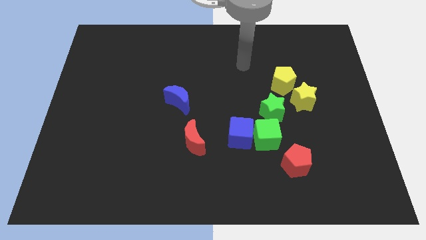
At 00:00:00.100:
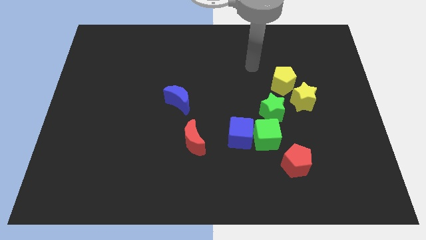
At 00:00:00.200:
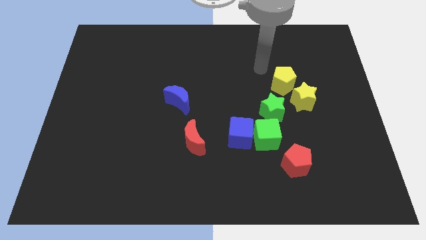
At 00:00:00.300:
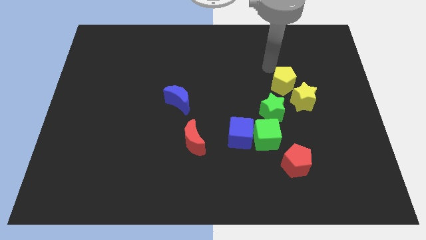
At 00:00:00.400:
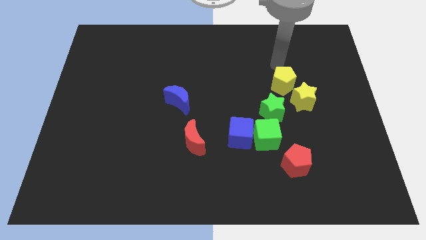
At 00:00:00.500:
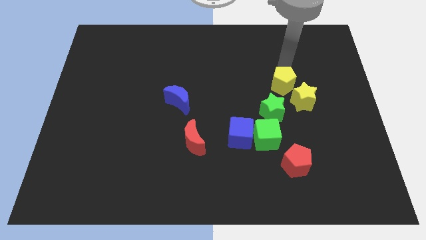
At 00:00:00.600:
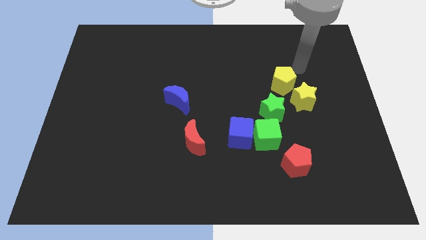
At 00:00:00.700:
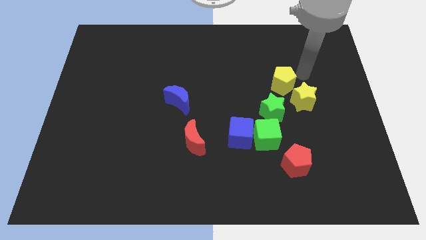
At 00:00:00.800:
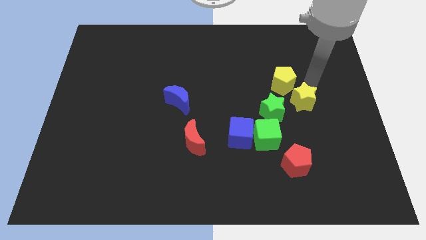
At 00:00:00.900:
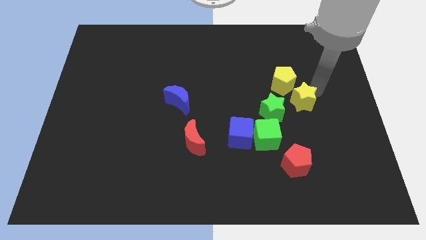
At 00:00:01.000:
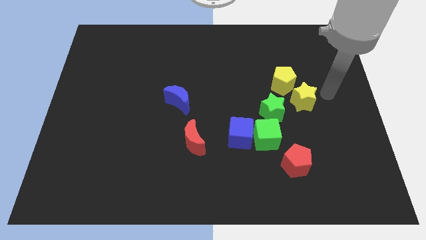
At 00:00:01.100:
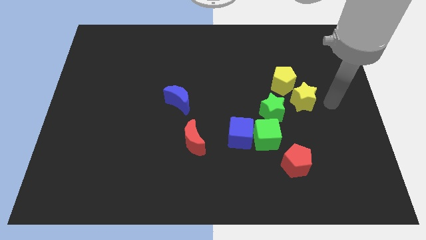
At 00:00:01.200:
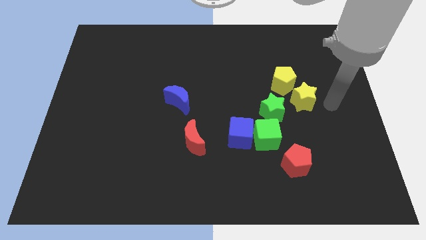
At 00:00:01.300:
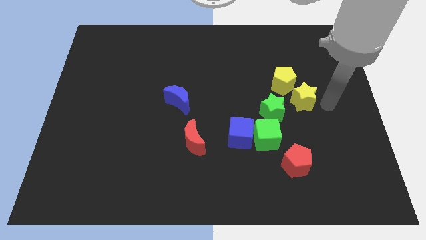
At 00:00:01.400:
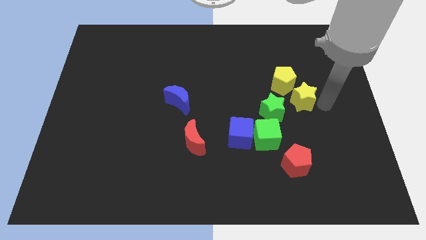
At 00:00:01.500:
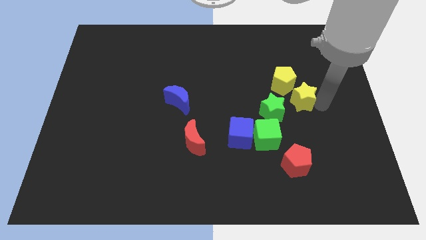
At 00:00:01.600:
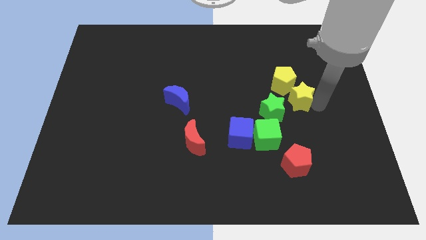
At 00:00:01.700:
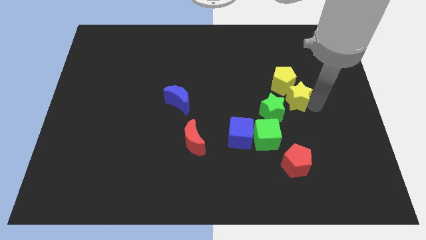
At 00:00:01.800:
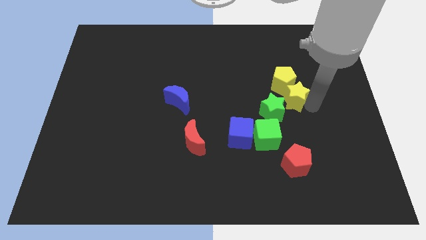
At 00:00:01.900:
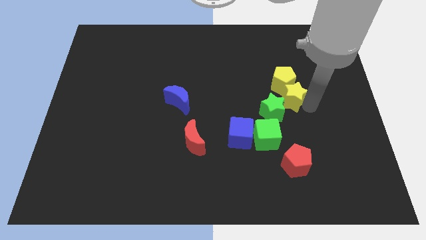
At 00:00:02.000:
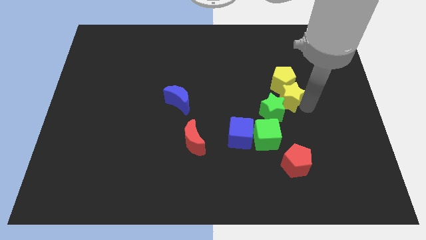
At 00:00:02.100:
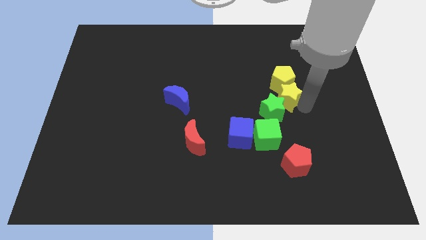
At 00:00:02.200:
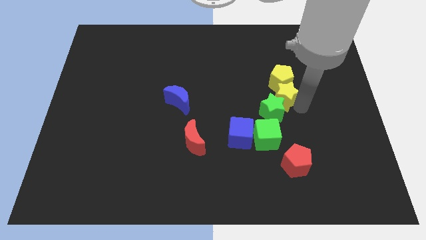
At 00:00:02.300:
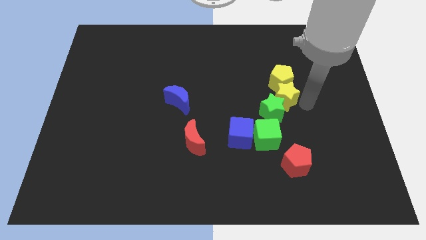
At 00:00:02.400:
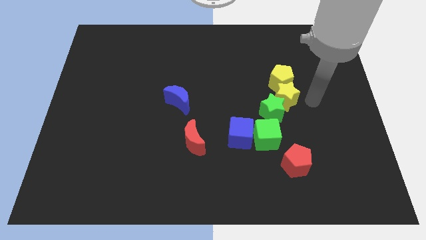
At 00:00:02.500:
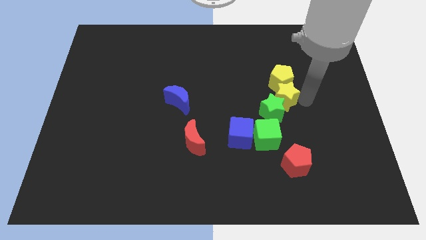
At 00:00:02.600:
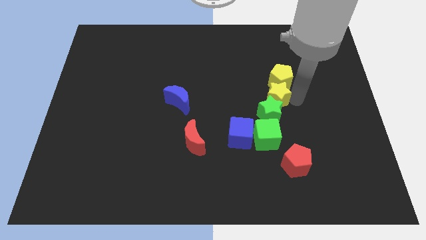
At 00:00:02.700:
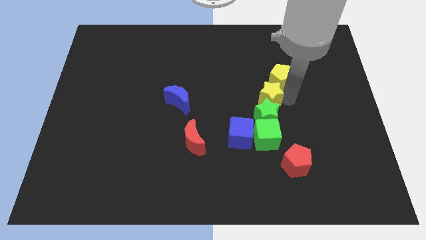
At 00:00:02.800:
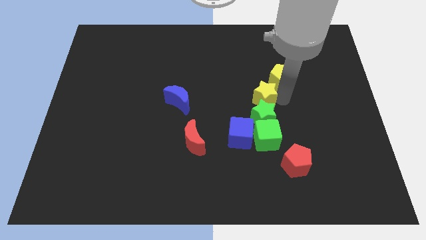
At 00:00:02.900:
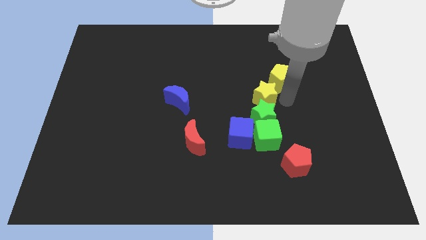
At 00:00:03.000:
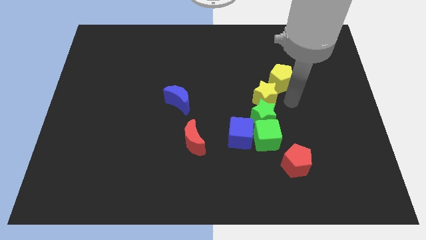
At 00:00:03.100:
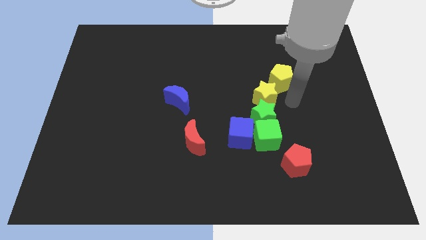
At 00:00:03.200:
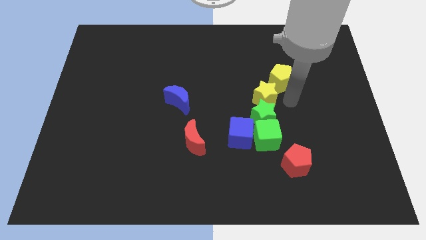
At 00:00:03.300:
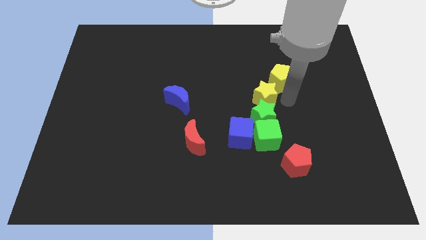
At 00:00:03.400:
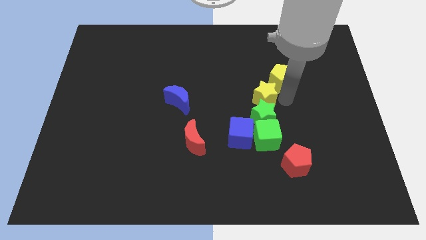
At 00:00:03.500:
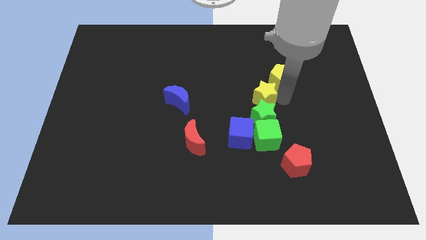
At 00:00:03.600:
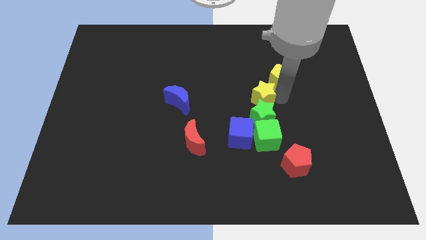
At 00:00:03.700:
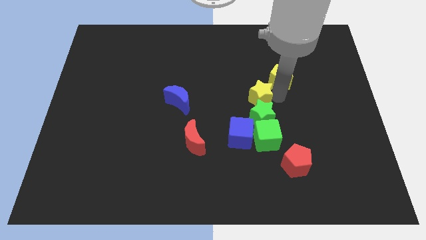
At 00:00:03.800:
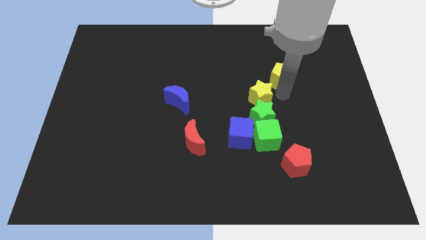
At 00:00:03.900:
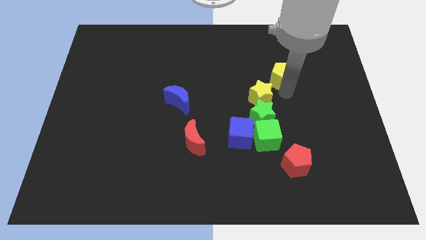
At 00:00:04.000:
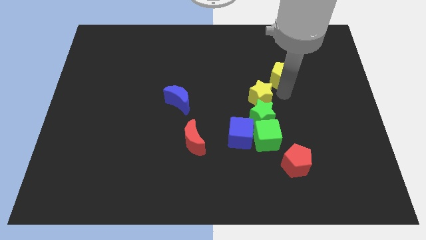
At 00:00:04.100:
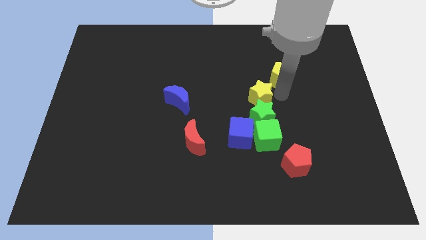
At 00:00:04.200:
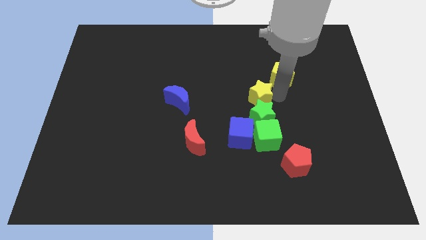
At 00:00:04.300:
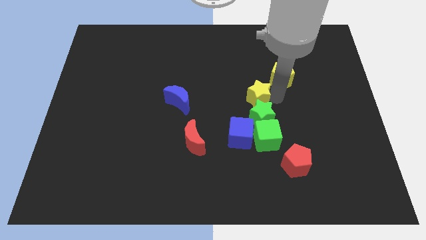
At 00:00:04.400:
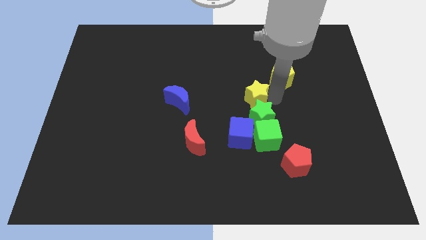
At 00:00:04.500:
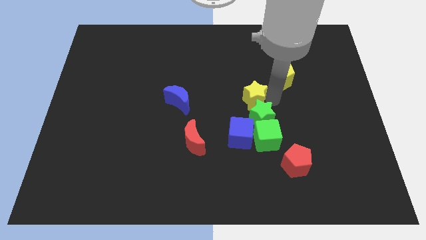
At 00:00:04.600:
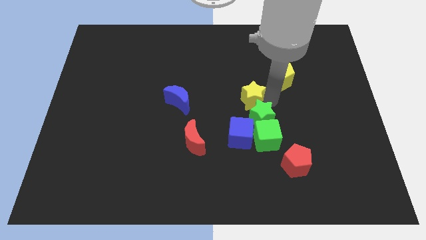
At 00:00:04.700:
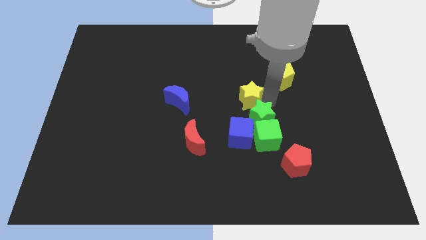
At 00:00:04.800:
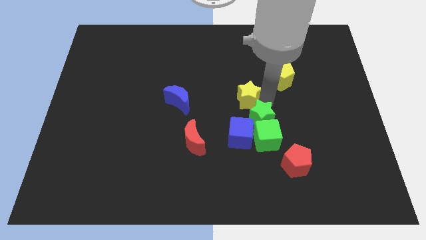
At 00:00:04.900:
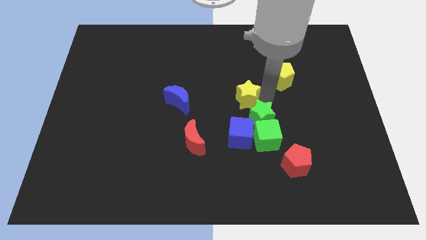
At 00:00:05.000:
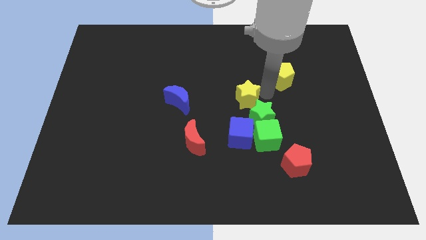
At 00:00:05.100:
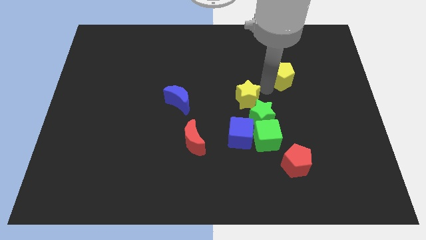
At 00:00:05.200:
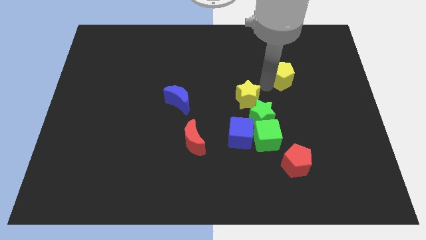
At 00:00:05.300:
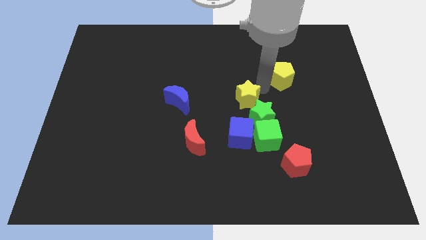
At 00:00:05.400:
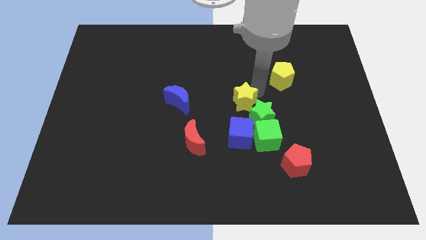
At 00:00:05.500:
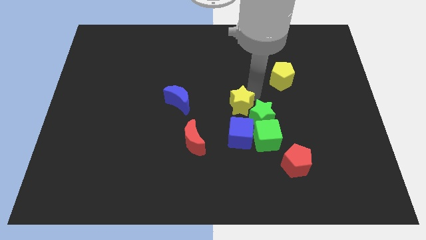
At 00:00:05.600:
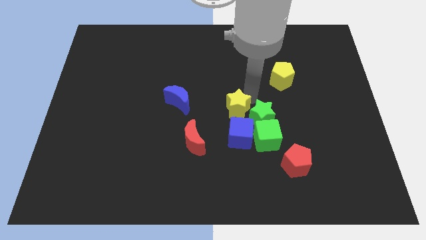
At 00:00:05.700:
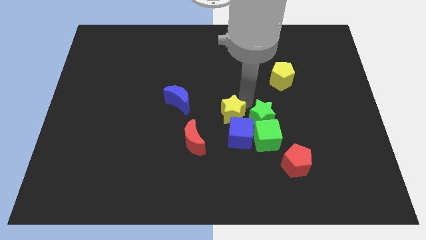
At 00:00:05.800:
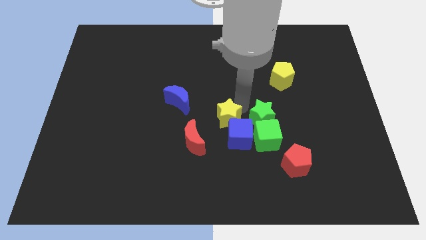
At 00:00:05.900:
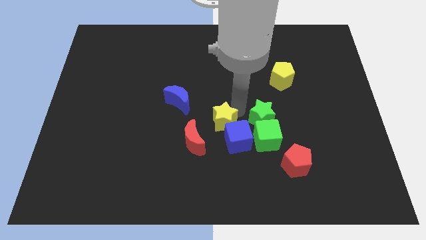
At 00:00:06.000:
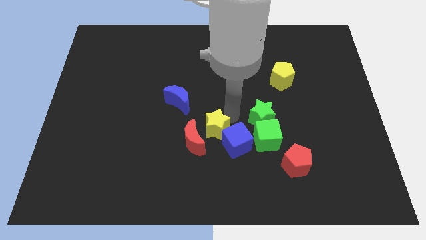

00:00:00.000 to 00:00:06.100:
push the yellow star to the red moon

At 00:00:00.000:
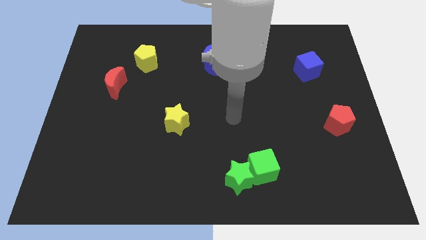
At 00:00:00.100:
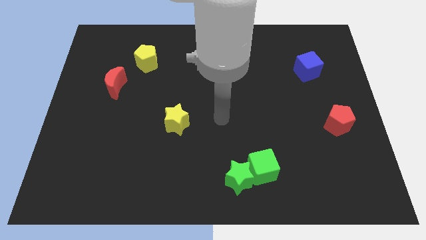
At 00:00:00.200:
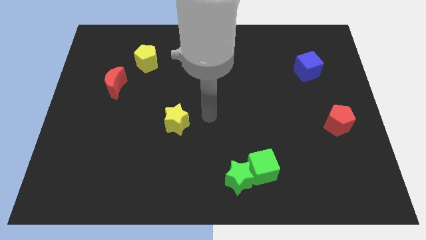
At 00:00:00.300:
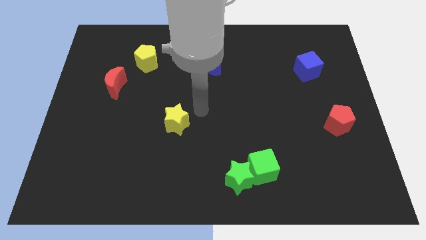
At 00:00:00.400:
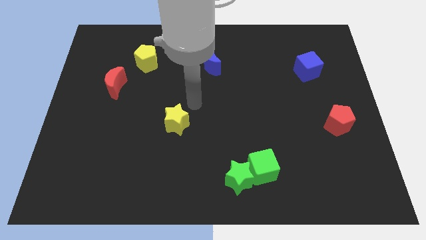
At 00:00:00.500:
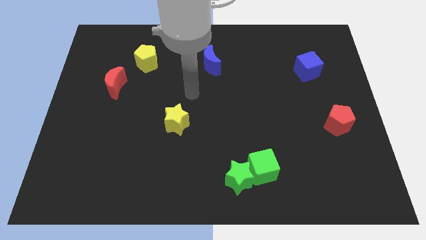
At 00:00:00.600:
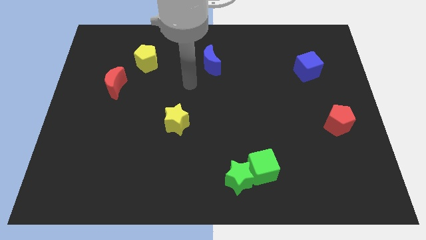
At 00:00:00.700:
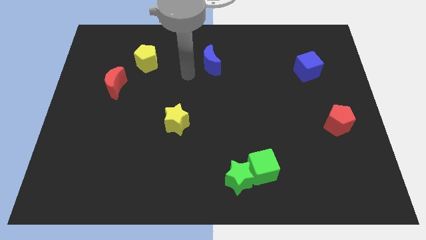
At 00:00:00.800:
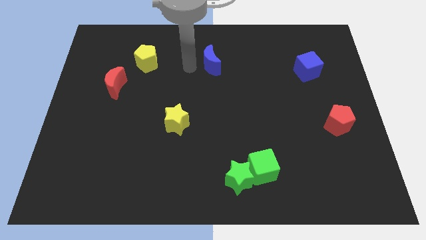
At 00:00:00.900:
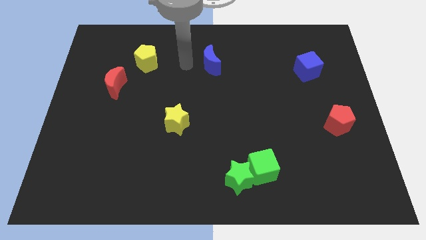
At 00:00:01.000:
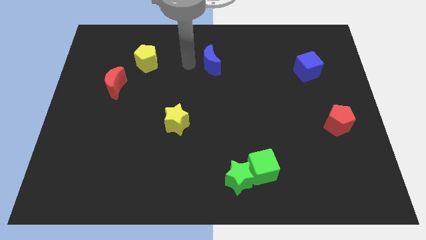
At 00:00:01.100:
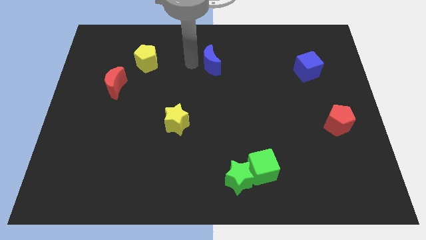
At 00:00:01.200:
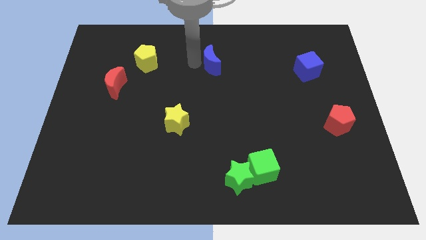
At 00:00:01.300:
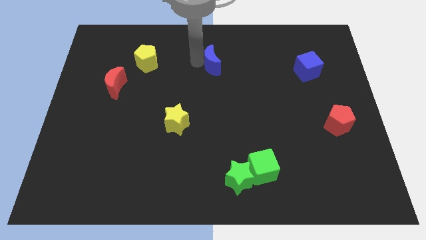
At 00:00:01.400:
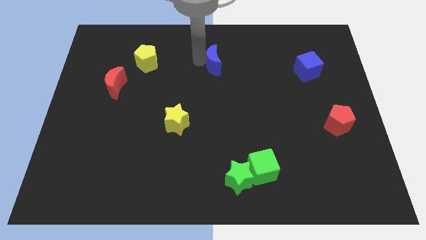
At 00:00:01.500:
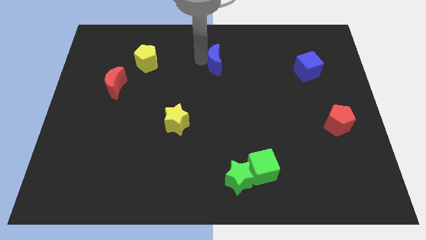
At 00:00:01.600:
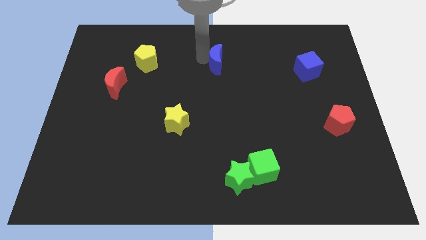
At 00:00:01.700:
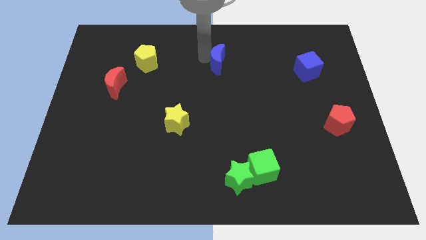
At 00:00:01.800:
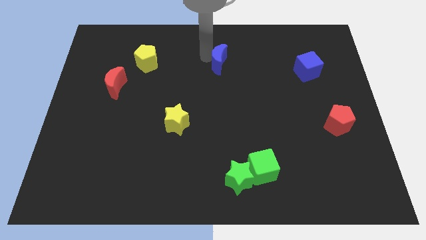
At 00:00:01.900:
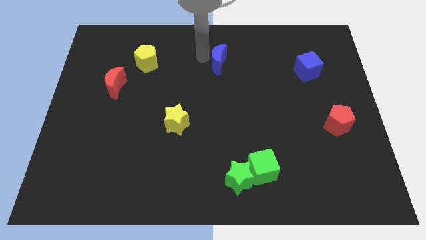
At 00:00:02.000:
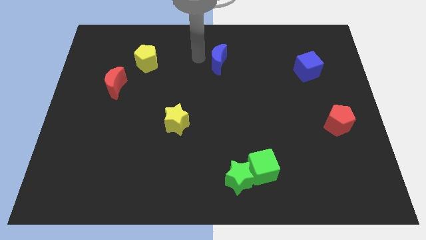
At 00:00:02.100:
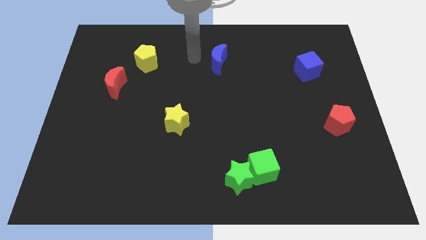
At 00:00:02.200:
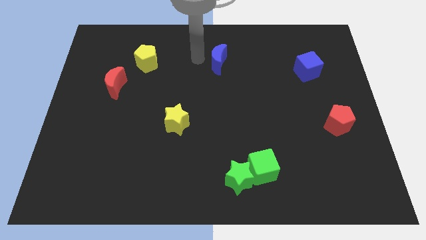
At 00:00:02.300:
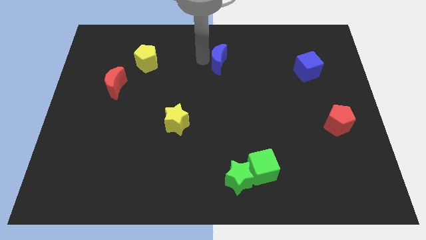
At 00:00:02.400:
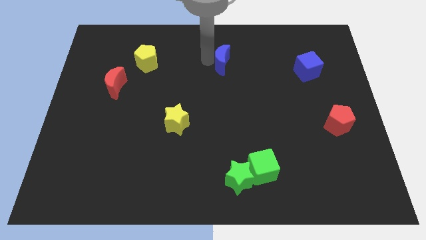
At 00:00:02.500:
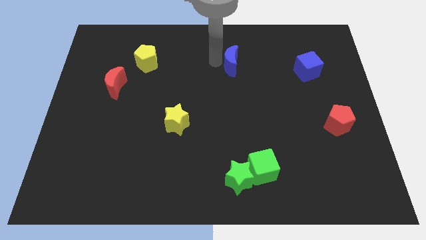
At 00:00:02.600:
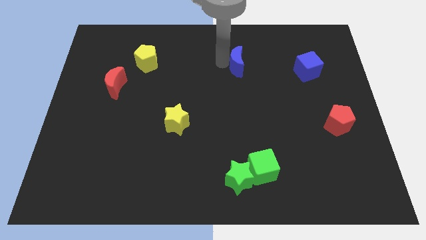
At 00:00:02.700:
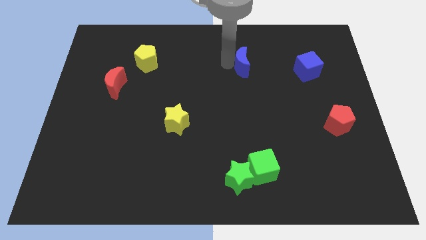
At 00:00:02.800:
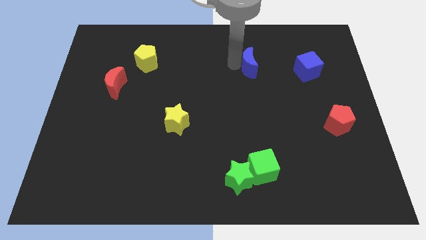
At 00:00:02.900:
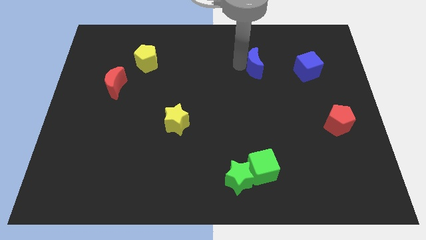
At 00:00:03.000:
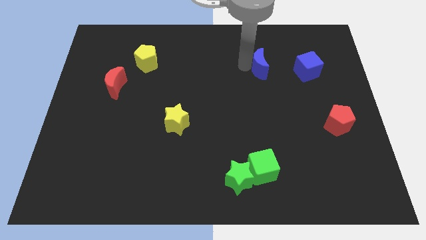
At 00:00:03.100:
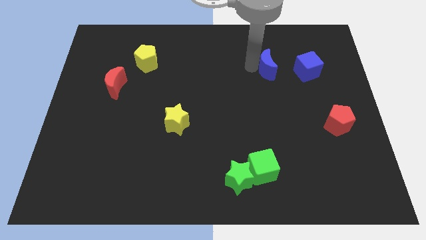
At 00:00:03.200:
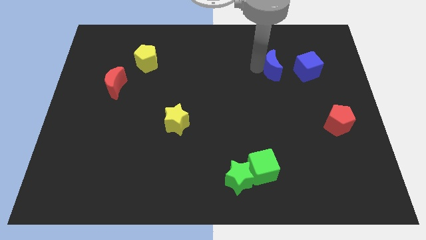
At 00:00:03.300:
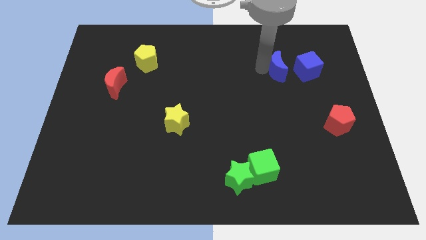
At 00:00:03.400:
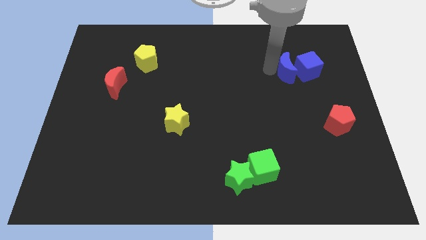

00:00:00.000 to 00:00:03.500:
slide the blue moon close to the blue cube
